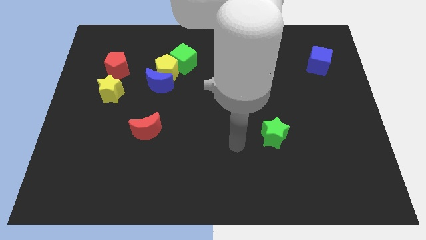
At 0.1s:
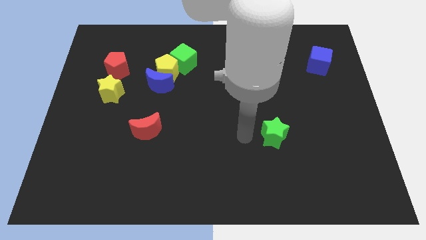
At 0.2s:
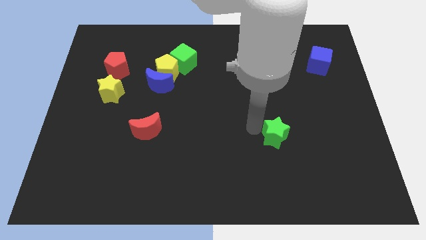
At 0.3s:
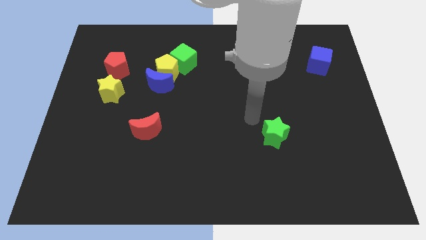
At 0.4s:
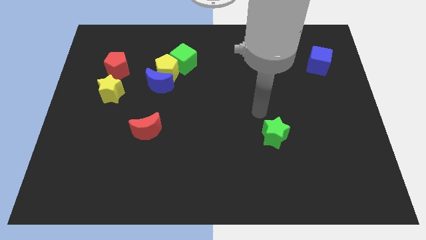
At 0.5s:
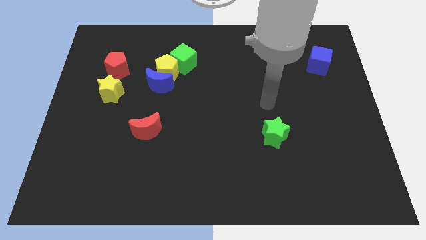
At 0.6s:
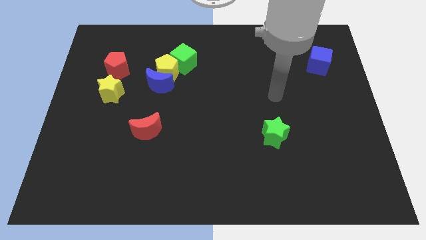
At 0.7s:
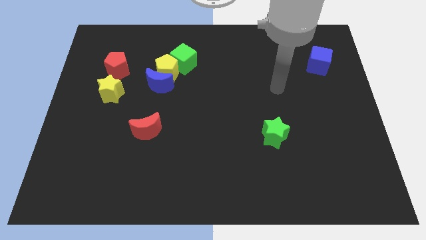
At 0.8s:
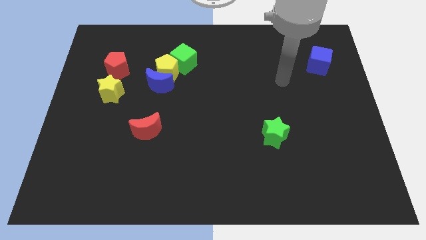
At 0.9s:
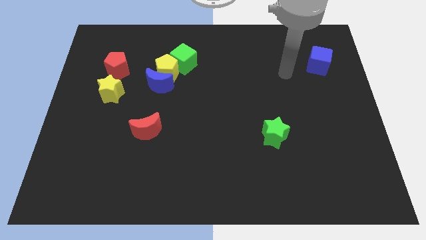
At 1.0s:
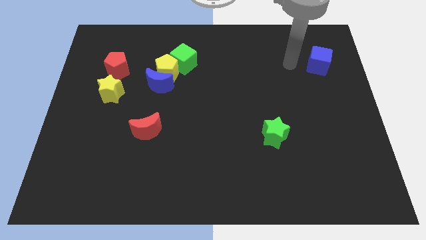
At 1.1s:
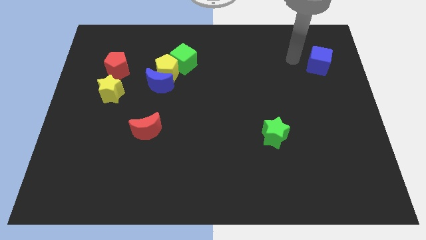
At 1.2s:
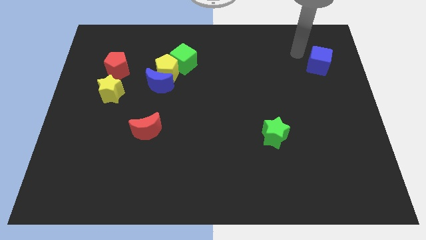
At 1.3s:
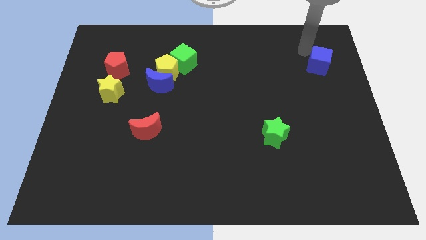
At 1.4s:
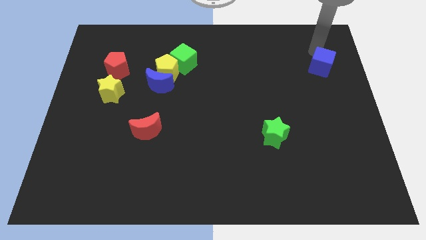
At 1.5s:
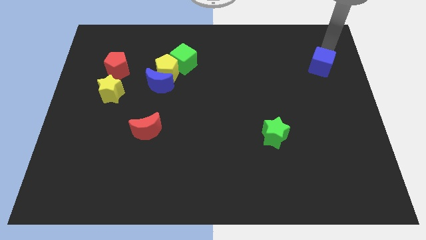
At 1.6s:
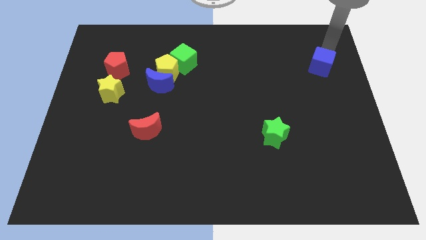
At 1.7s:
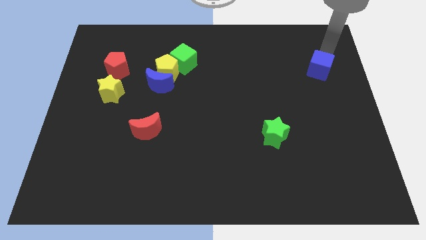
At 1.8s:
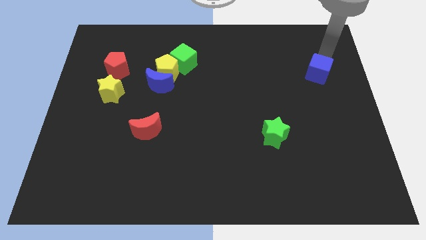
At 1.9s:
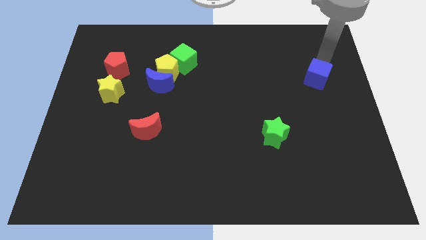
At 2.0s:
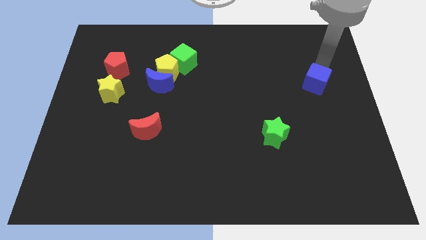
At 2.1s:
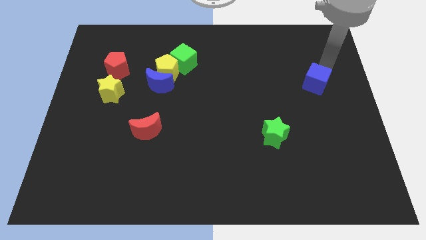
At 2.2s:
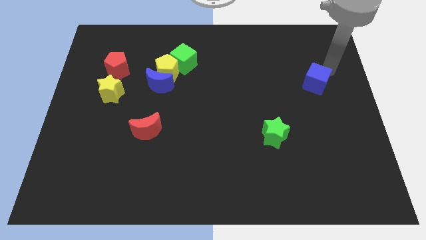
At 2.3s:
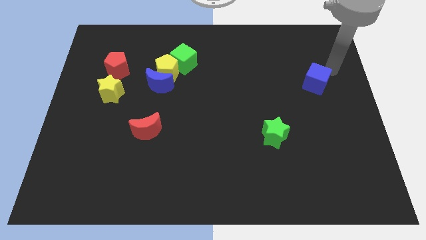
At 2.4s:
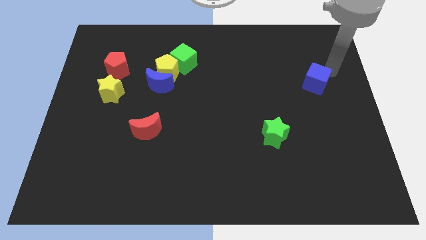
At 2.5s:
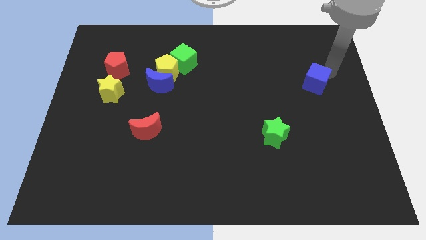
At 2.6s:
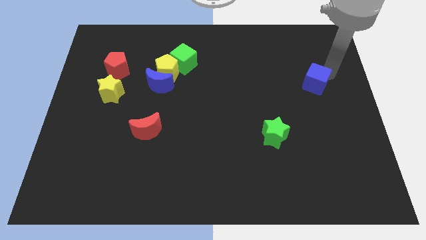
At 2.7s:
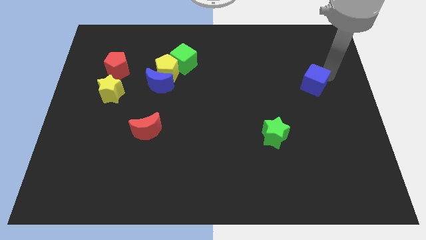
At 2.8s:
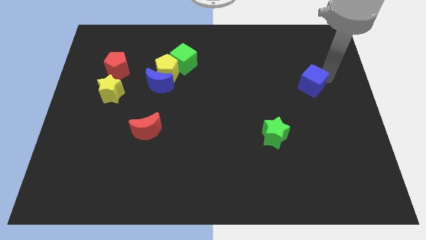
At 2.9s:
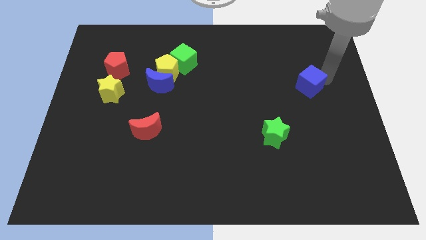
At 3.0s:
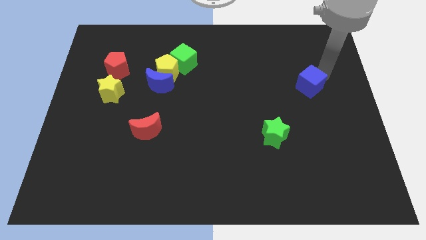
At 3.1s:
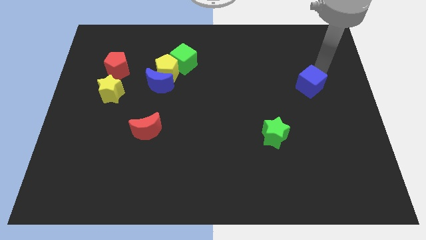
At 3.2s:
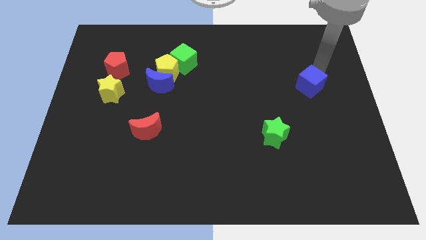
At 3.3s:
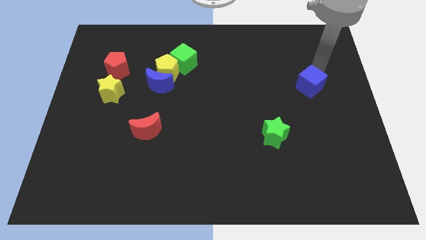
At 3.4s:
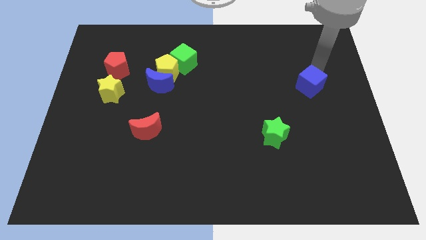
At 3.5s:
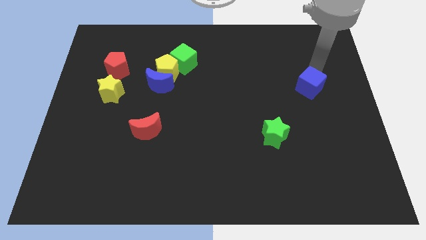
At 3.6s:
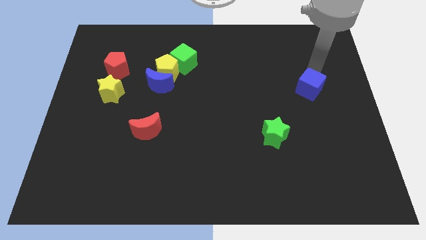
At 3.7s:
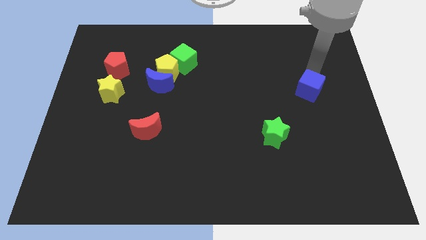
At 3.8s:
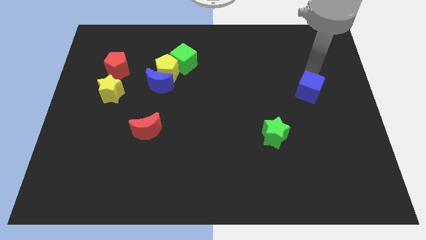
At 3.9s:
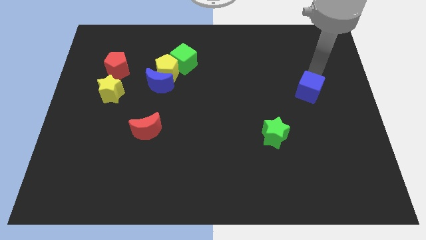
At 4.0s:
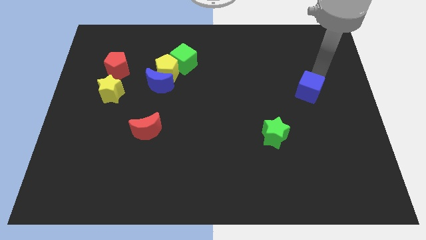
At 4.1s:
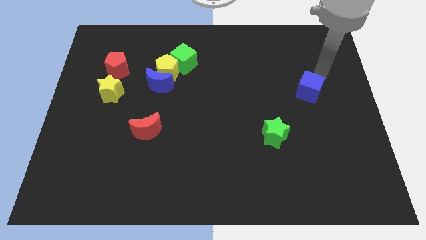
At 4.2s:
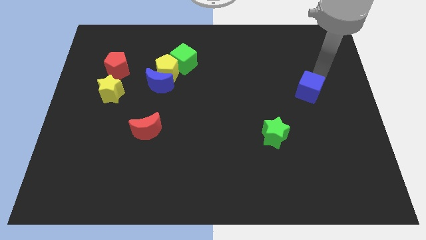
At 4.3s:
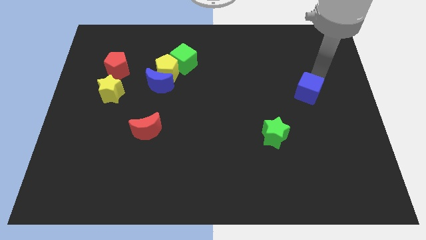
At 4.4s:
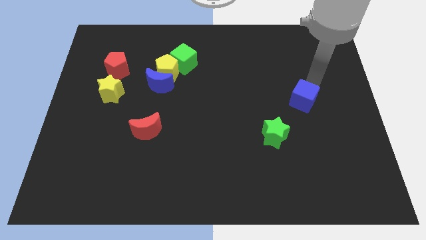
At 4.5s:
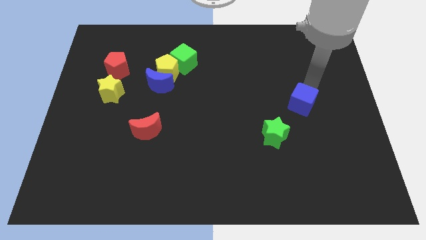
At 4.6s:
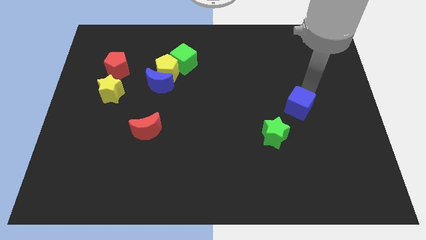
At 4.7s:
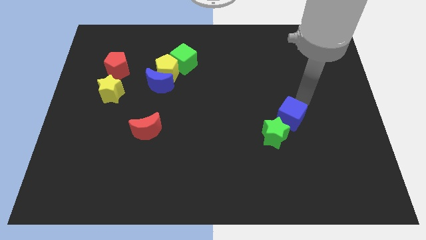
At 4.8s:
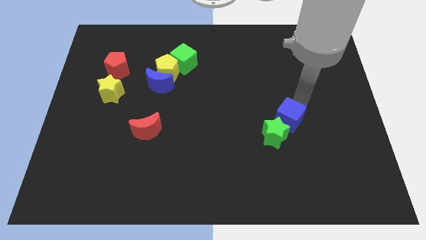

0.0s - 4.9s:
move the blue cube to the green star
